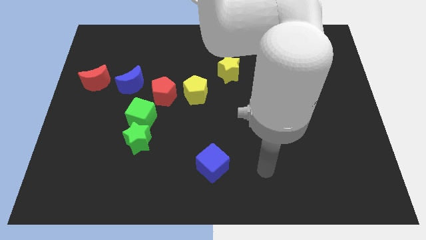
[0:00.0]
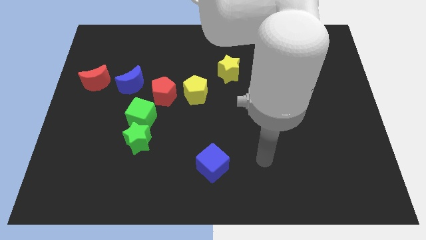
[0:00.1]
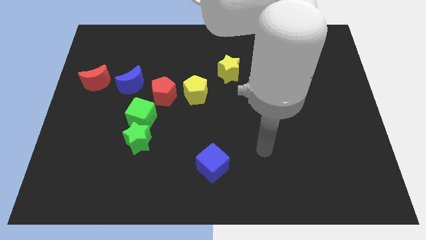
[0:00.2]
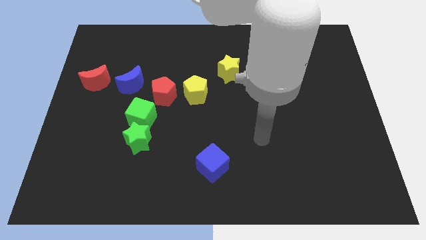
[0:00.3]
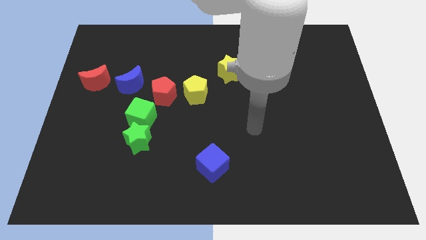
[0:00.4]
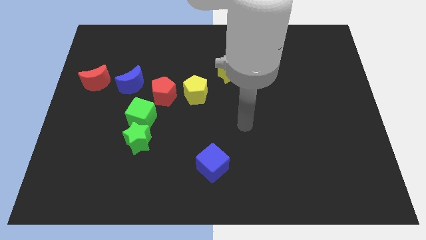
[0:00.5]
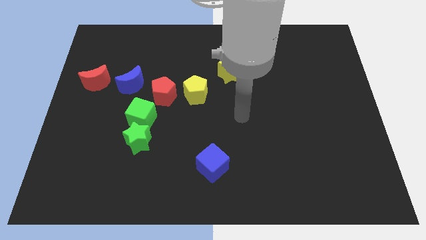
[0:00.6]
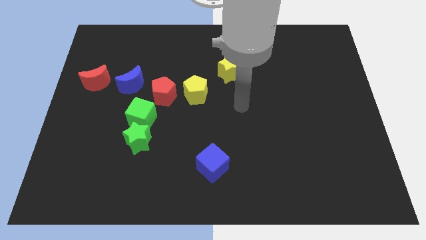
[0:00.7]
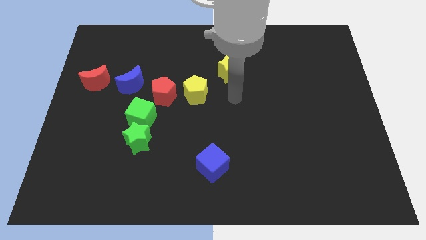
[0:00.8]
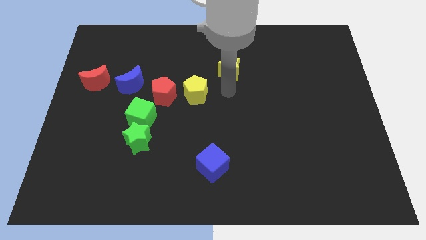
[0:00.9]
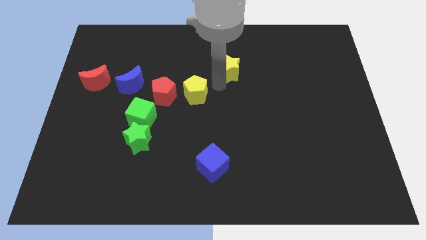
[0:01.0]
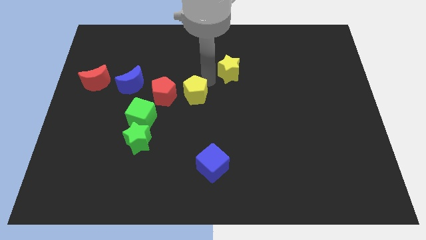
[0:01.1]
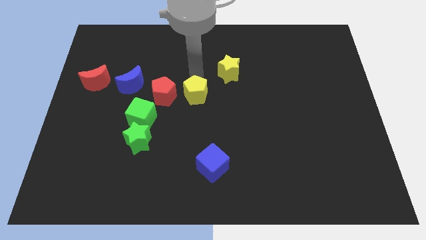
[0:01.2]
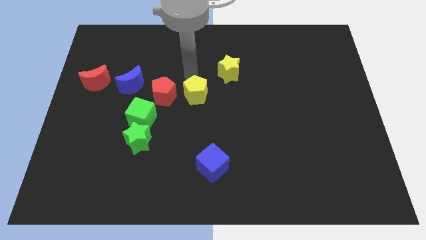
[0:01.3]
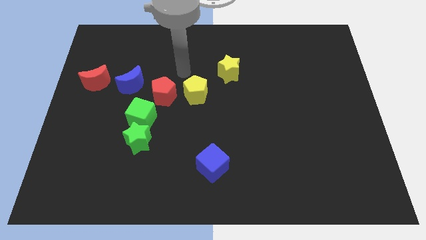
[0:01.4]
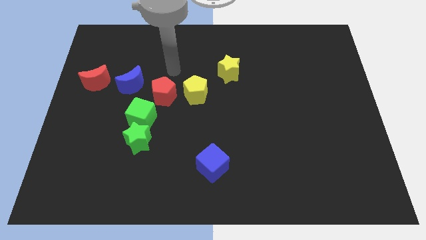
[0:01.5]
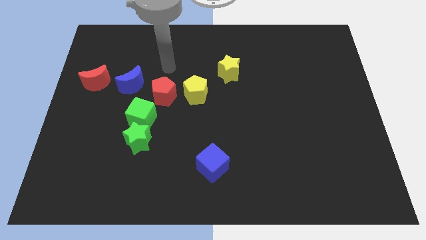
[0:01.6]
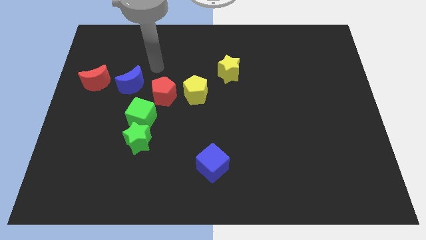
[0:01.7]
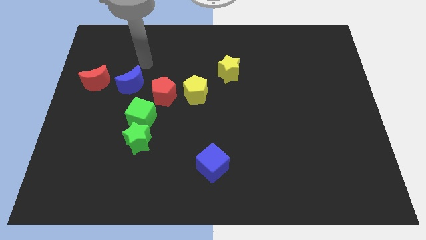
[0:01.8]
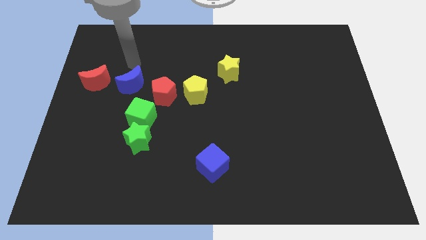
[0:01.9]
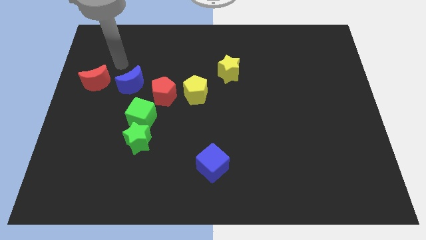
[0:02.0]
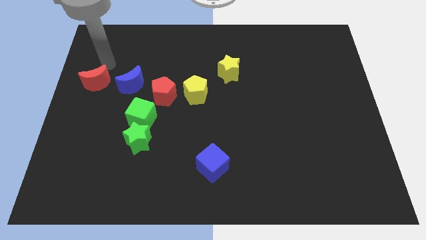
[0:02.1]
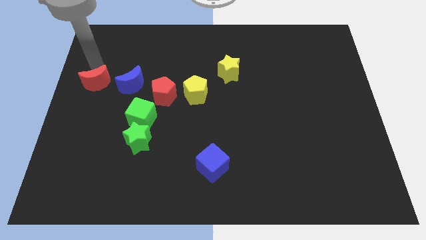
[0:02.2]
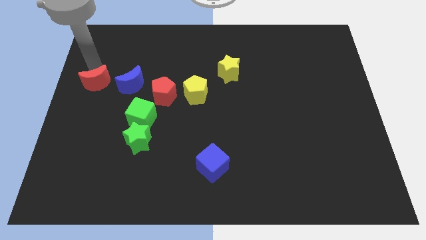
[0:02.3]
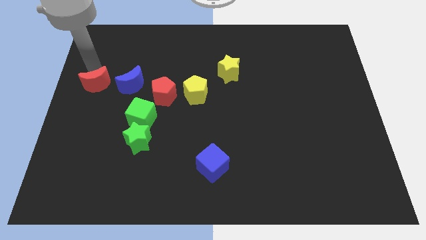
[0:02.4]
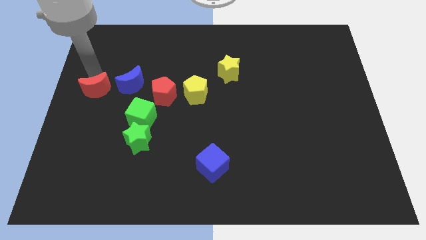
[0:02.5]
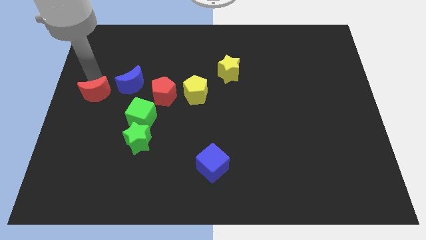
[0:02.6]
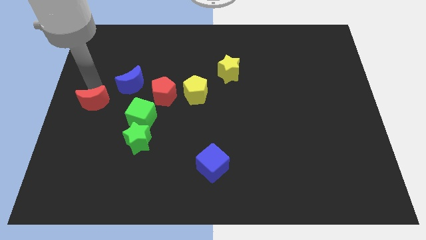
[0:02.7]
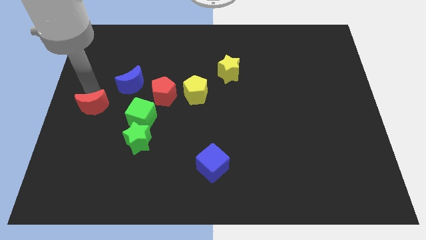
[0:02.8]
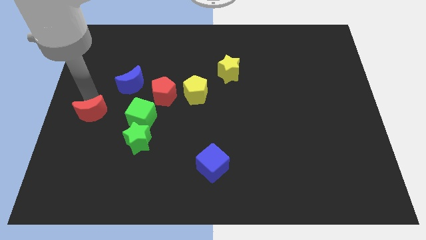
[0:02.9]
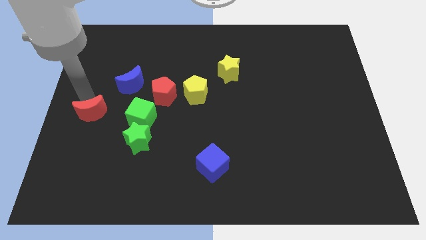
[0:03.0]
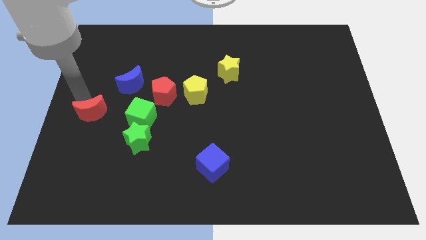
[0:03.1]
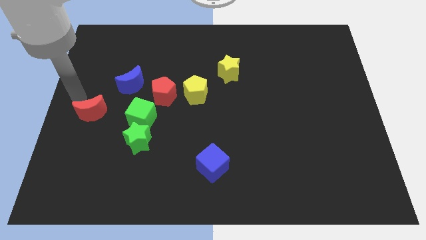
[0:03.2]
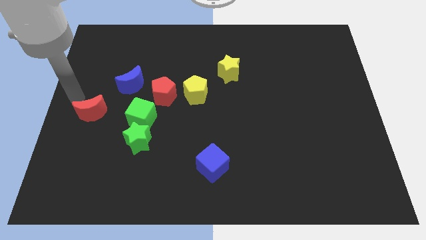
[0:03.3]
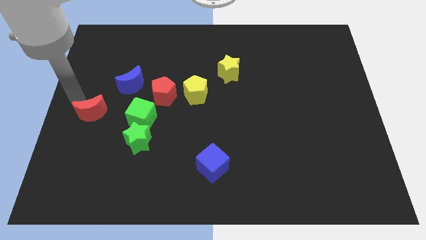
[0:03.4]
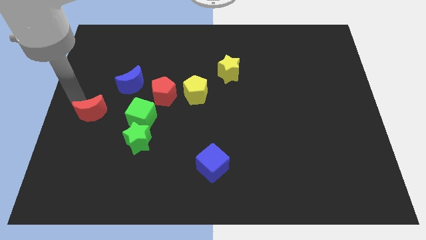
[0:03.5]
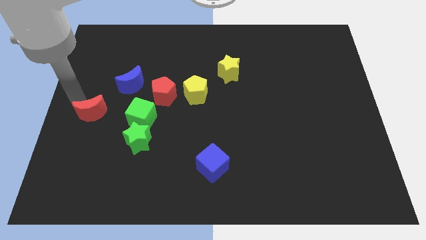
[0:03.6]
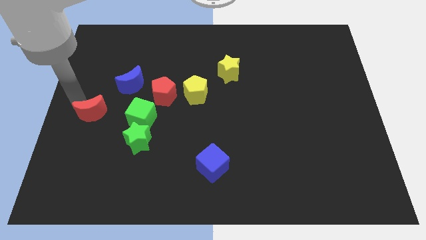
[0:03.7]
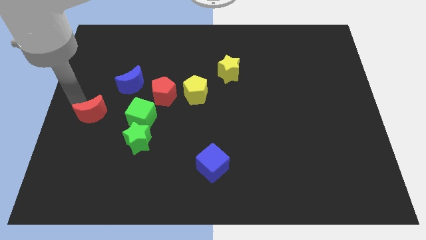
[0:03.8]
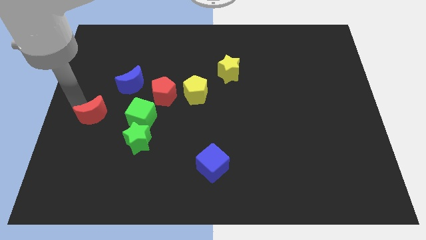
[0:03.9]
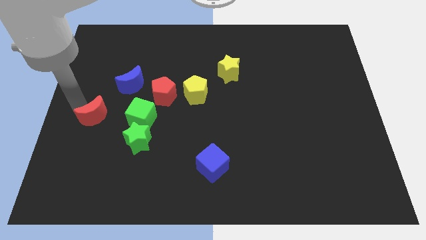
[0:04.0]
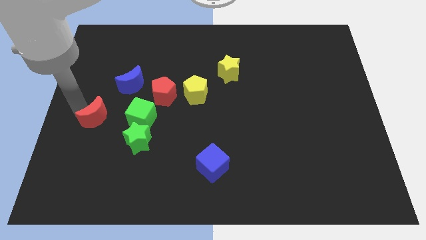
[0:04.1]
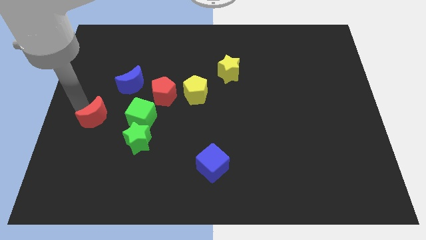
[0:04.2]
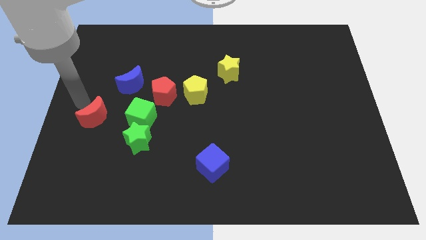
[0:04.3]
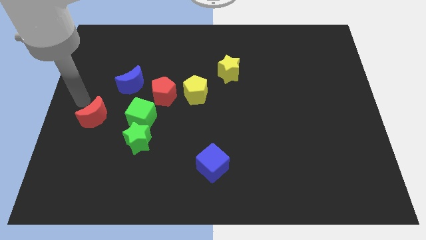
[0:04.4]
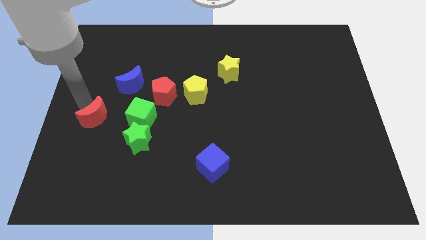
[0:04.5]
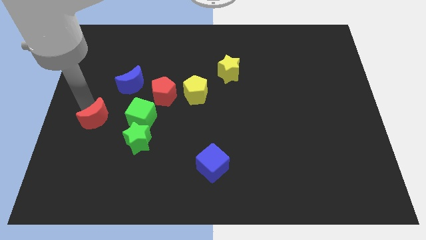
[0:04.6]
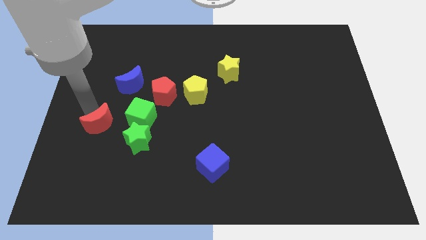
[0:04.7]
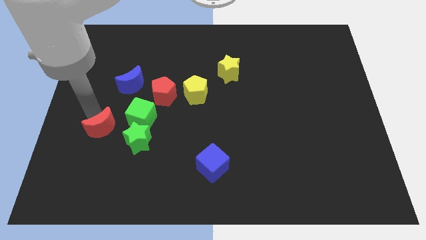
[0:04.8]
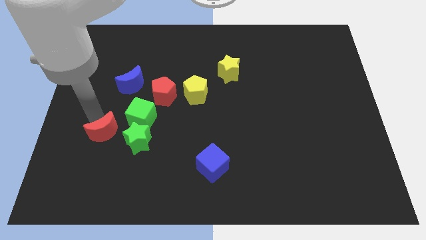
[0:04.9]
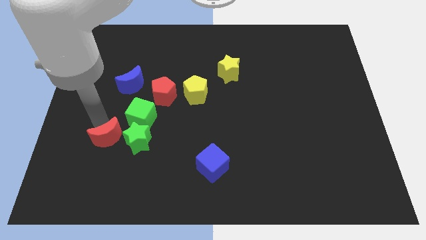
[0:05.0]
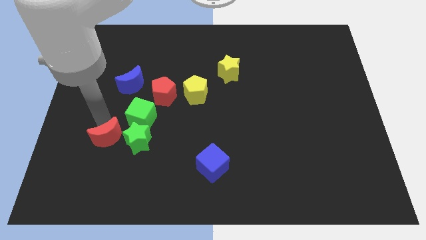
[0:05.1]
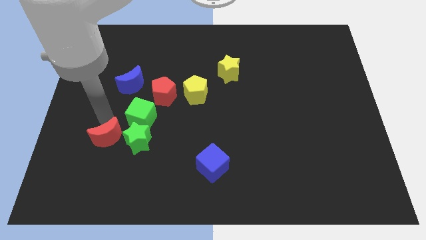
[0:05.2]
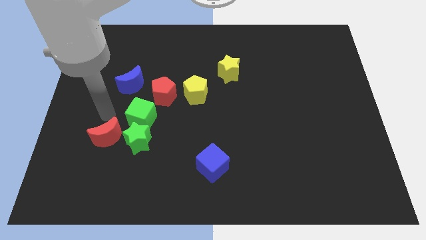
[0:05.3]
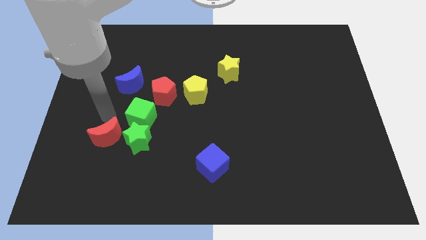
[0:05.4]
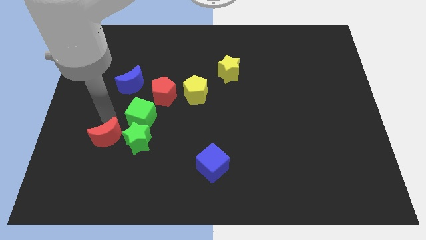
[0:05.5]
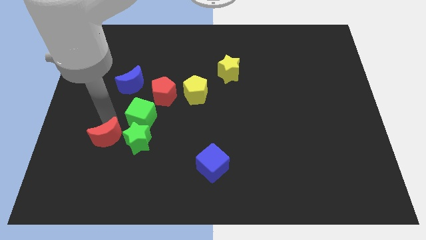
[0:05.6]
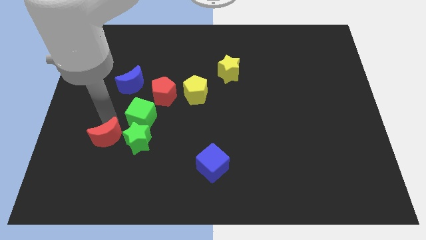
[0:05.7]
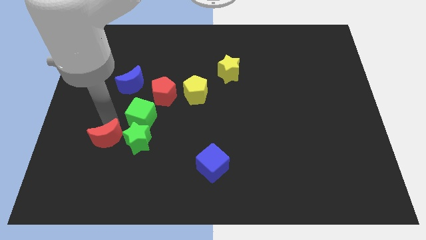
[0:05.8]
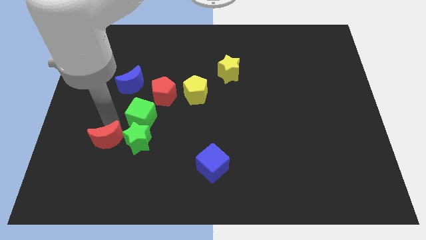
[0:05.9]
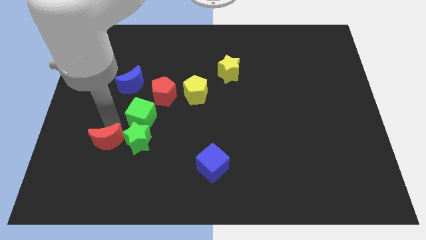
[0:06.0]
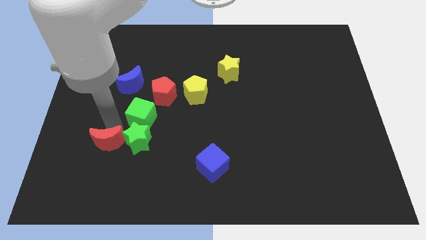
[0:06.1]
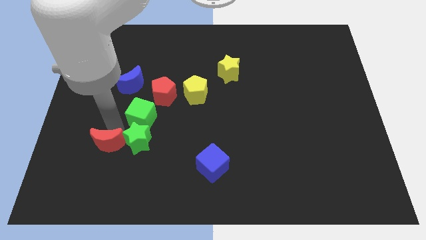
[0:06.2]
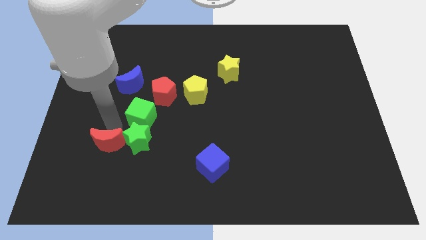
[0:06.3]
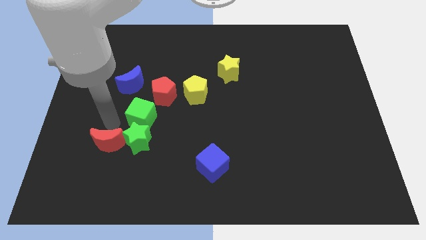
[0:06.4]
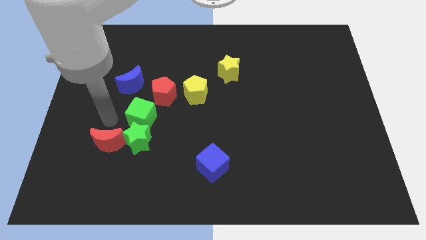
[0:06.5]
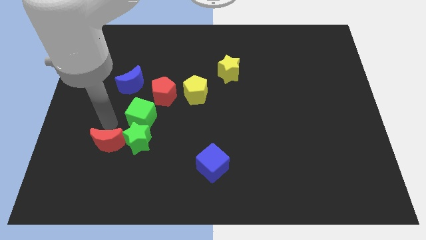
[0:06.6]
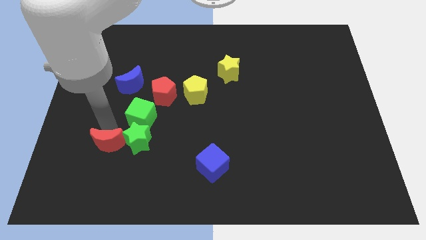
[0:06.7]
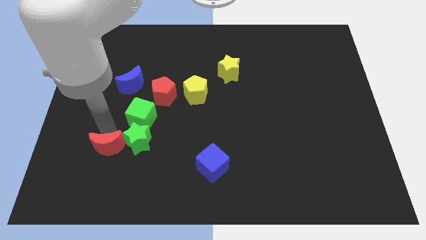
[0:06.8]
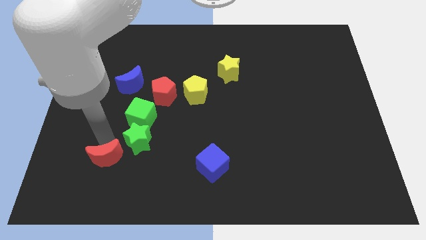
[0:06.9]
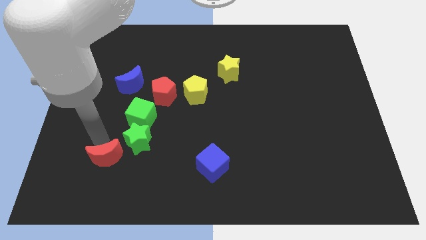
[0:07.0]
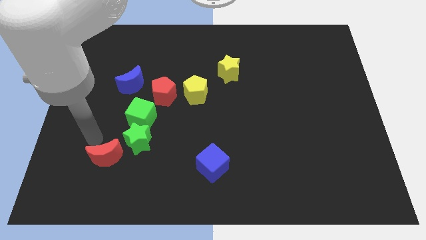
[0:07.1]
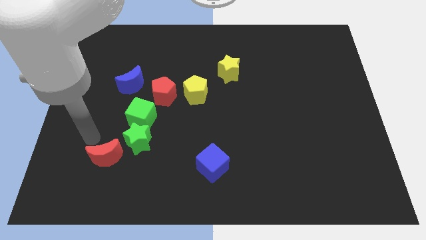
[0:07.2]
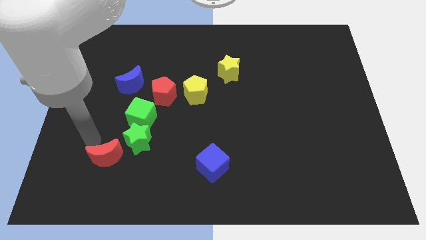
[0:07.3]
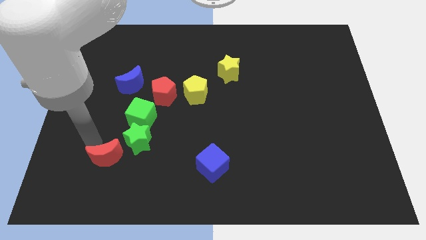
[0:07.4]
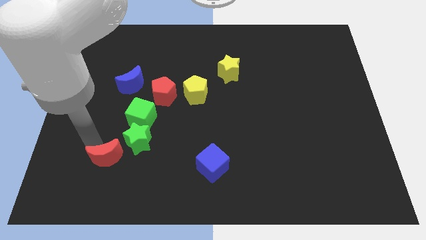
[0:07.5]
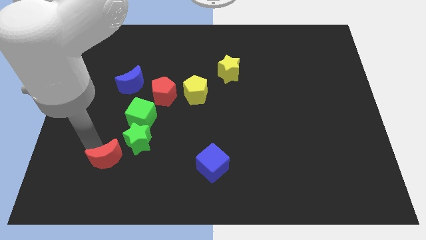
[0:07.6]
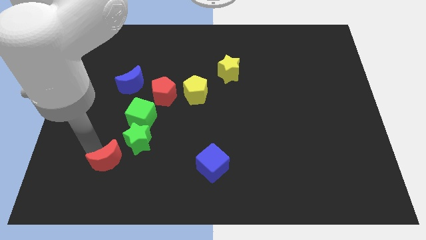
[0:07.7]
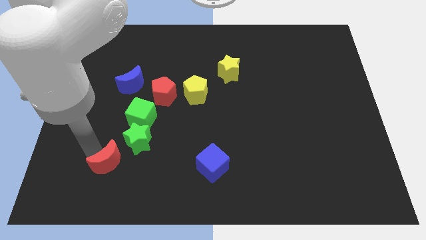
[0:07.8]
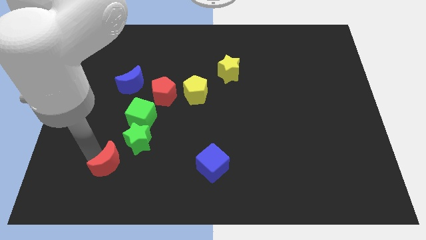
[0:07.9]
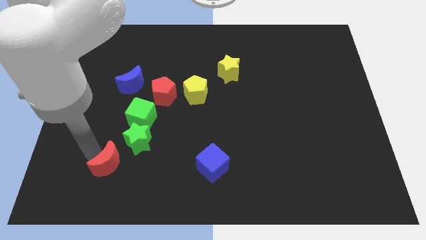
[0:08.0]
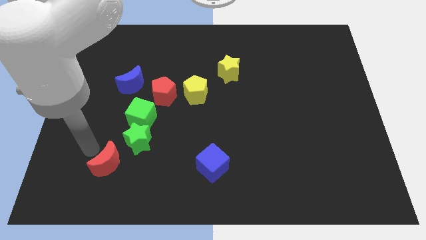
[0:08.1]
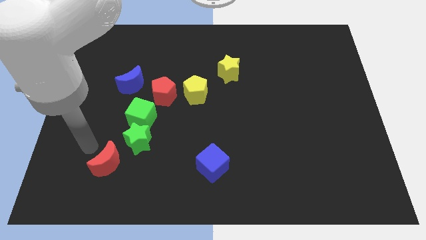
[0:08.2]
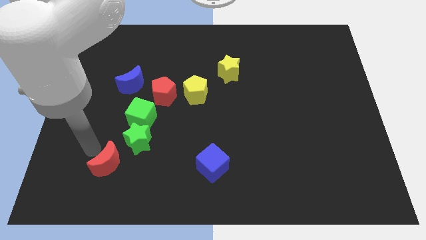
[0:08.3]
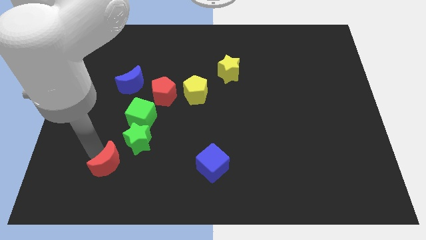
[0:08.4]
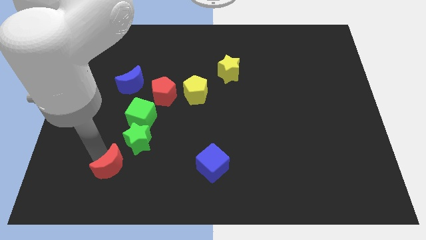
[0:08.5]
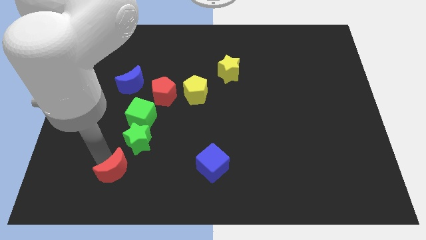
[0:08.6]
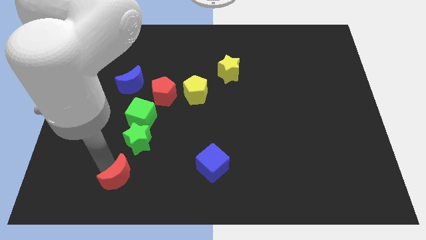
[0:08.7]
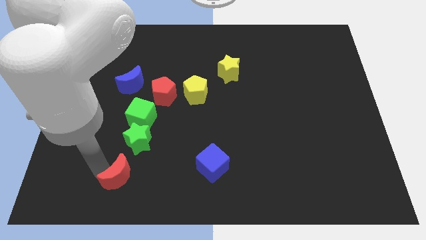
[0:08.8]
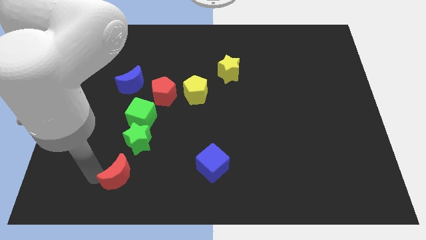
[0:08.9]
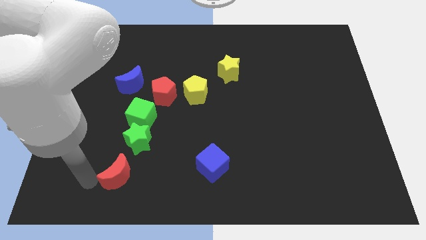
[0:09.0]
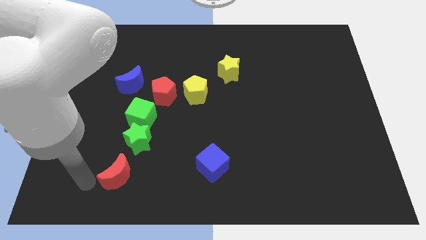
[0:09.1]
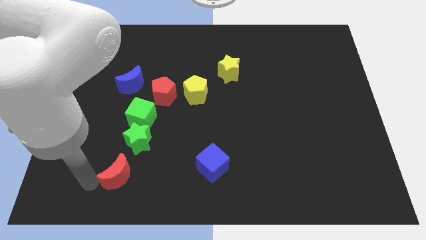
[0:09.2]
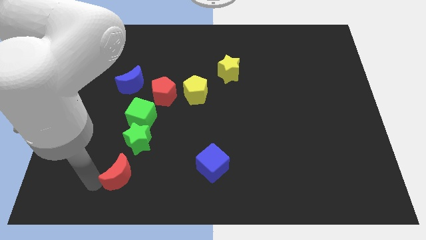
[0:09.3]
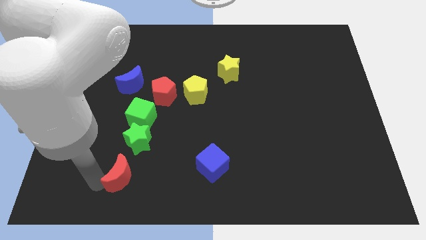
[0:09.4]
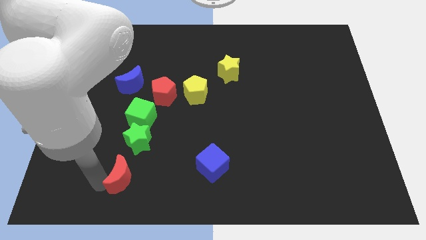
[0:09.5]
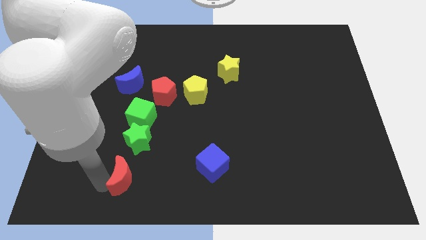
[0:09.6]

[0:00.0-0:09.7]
push the red moon downwards and then right
